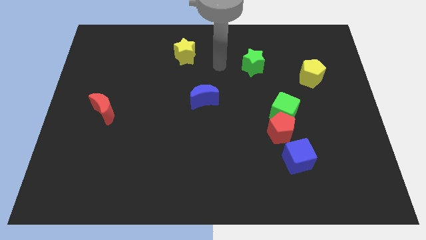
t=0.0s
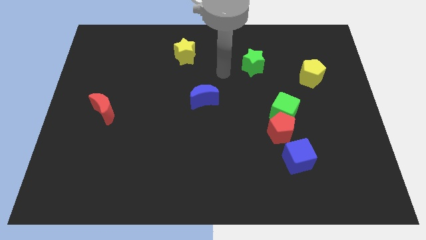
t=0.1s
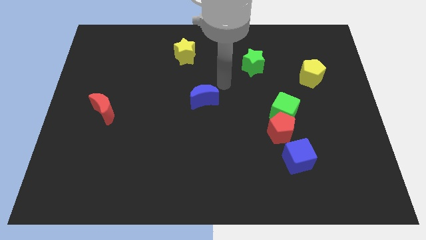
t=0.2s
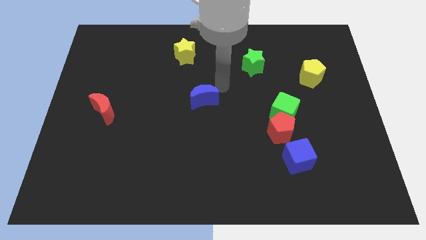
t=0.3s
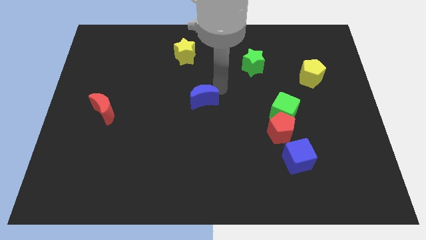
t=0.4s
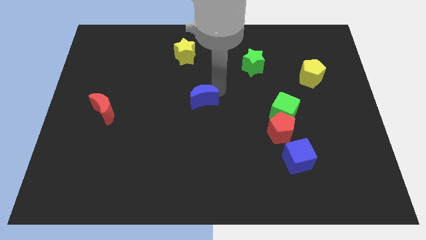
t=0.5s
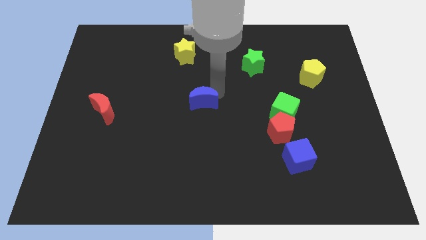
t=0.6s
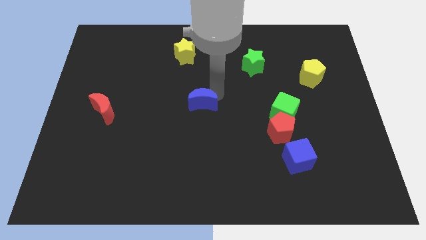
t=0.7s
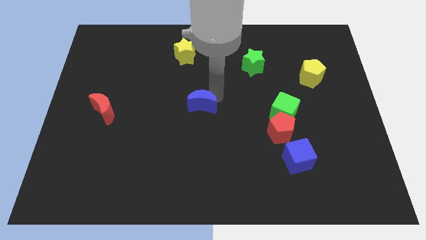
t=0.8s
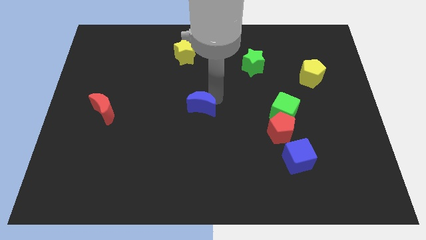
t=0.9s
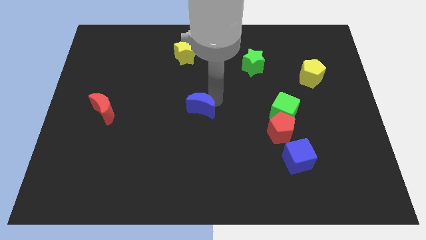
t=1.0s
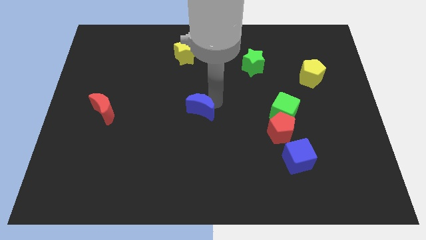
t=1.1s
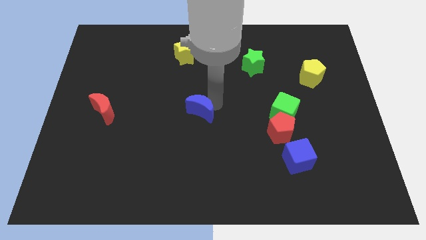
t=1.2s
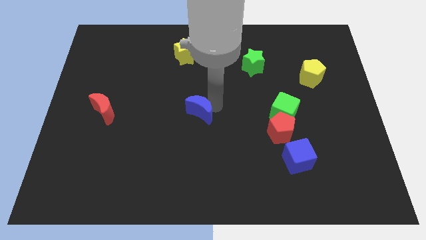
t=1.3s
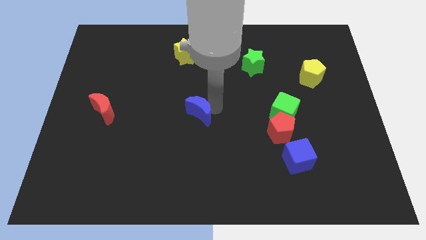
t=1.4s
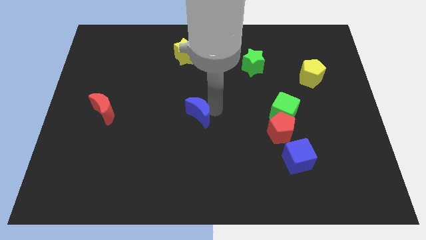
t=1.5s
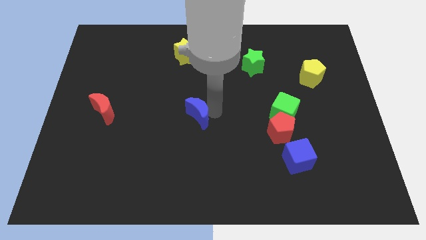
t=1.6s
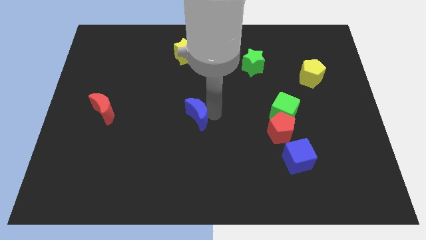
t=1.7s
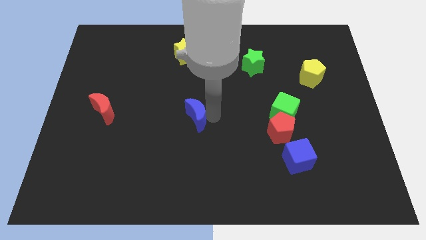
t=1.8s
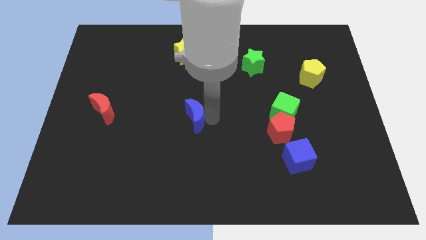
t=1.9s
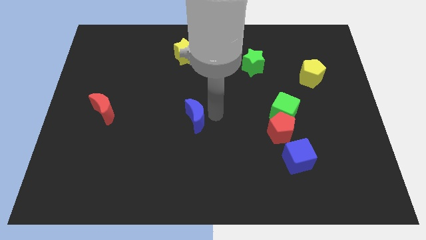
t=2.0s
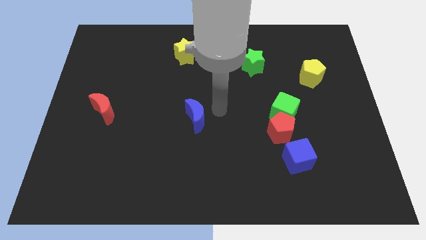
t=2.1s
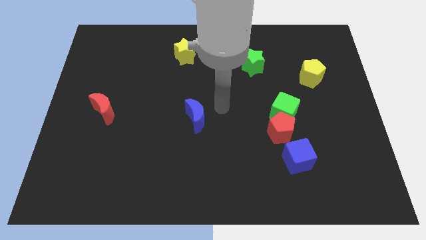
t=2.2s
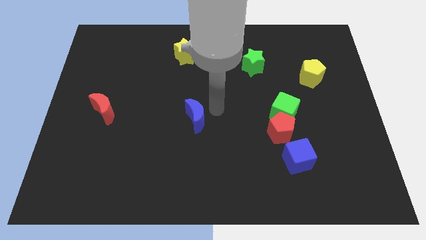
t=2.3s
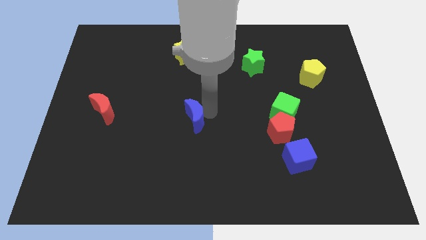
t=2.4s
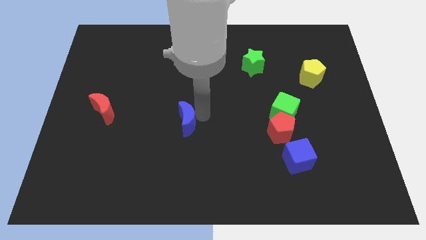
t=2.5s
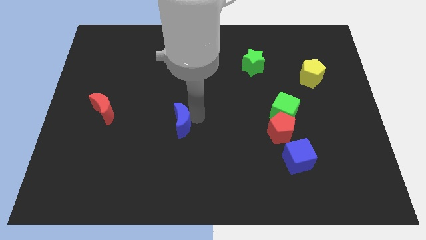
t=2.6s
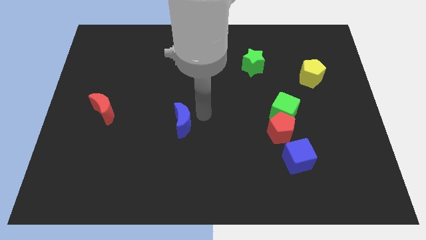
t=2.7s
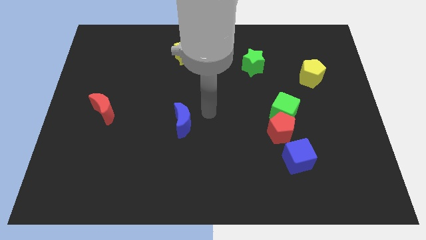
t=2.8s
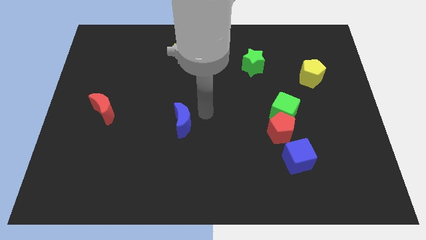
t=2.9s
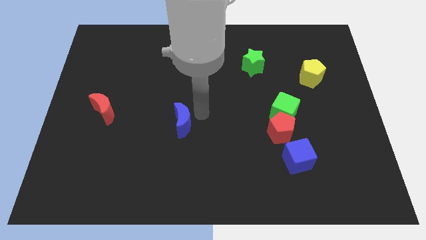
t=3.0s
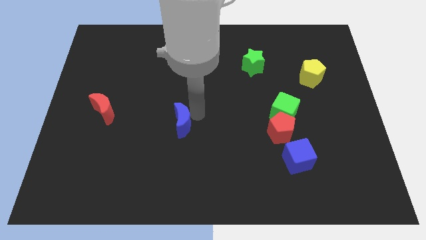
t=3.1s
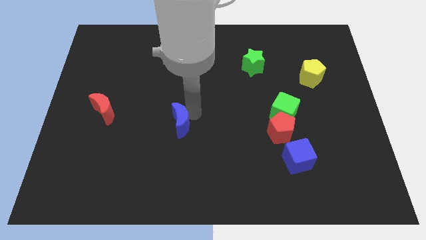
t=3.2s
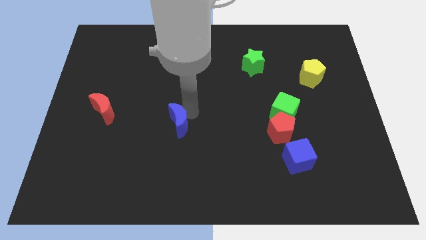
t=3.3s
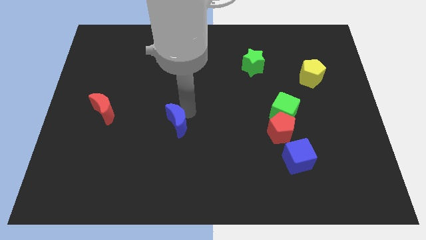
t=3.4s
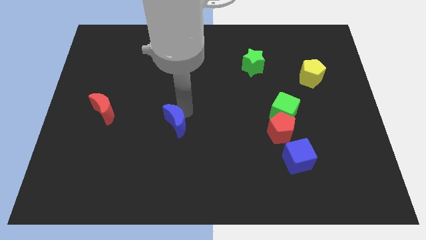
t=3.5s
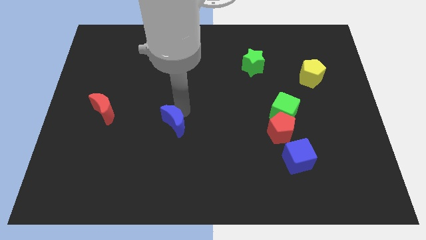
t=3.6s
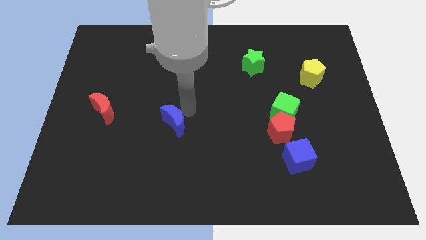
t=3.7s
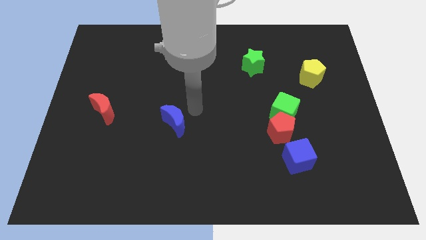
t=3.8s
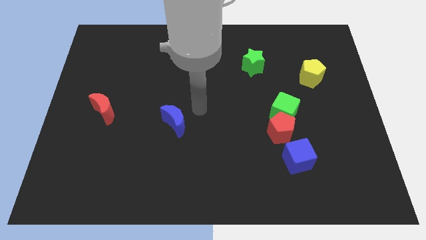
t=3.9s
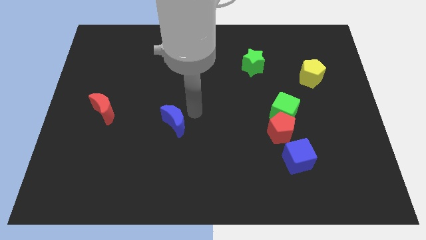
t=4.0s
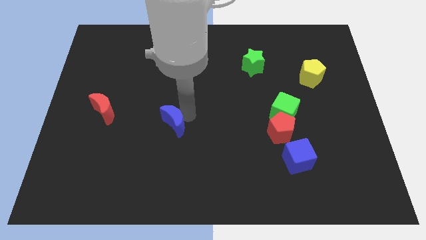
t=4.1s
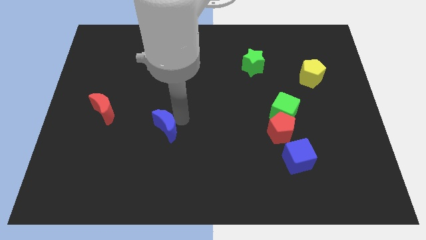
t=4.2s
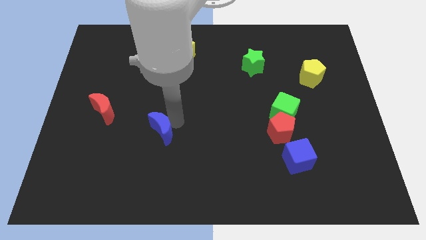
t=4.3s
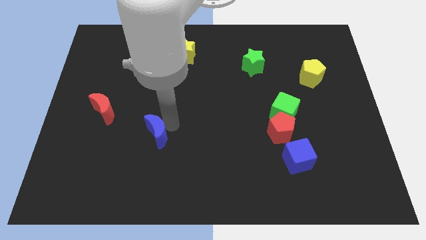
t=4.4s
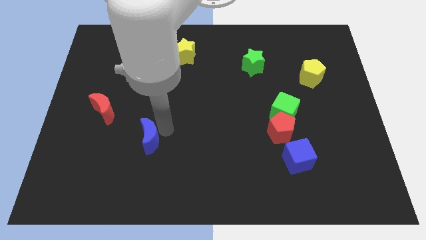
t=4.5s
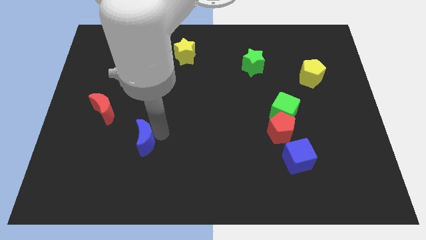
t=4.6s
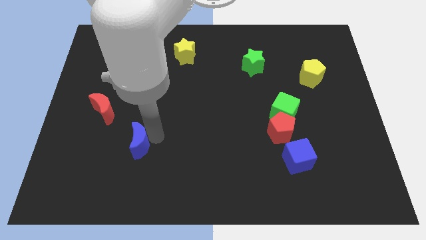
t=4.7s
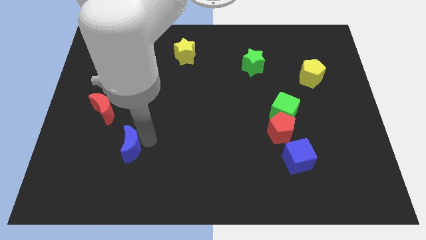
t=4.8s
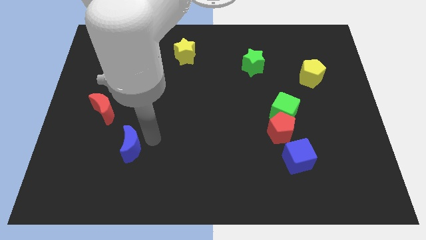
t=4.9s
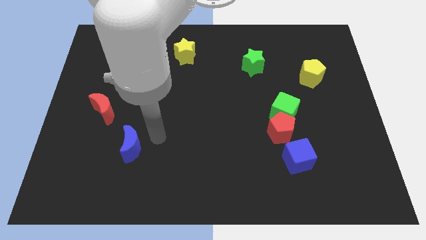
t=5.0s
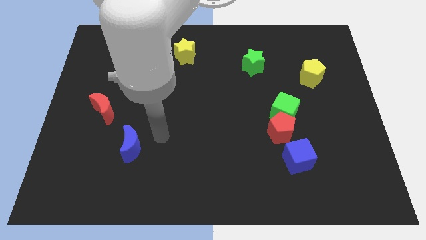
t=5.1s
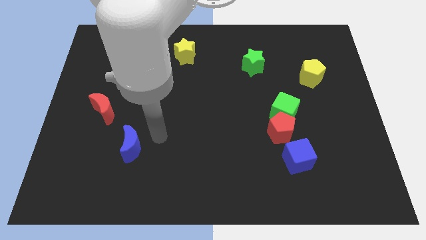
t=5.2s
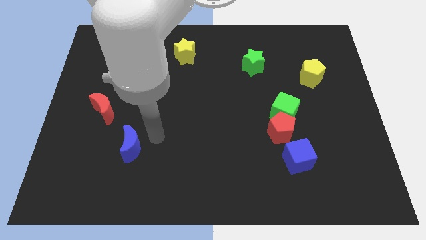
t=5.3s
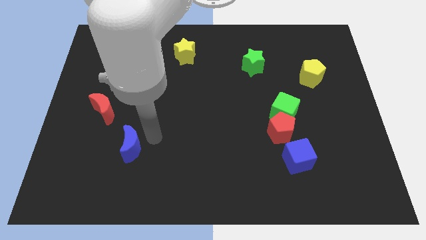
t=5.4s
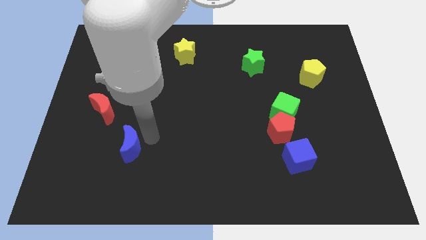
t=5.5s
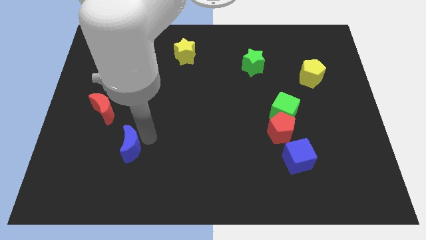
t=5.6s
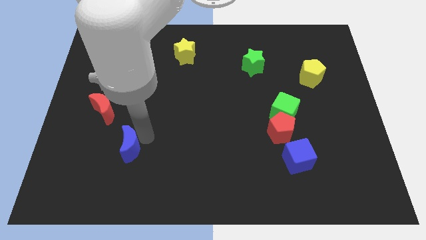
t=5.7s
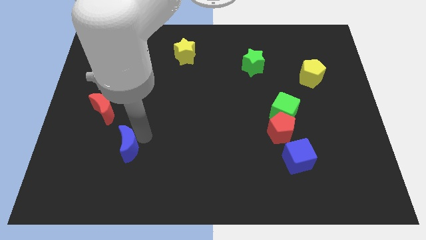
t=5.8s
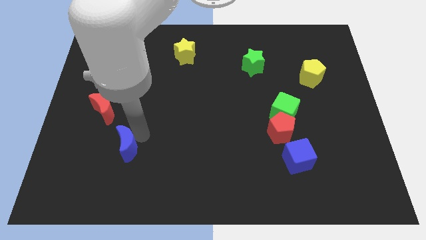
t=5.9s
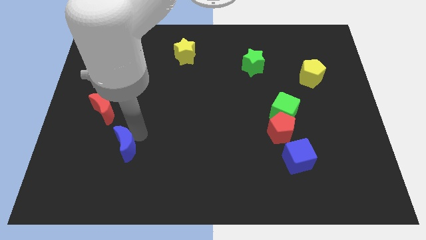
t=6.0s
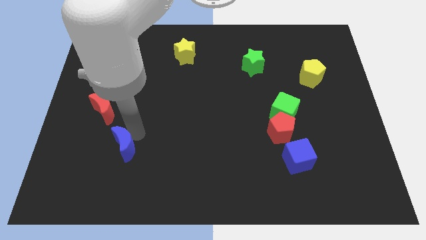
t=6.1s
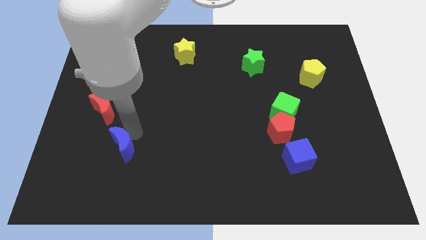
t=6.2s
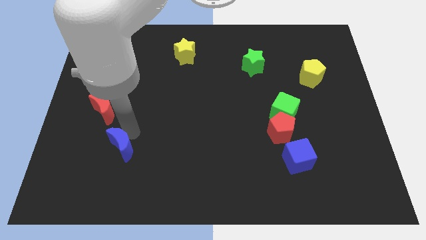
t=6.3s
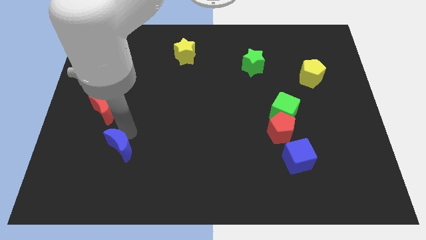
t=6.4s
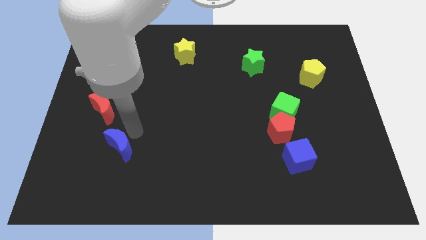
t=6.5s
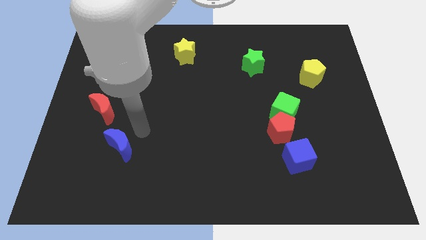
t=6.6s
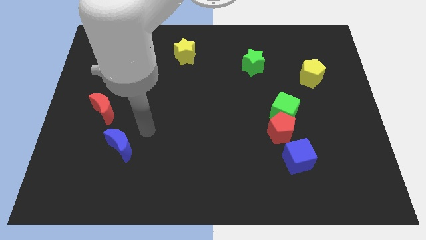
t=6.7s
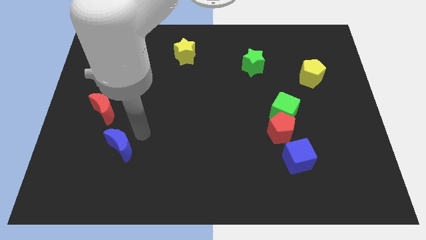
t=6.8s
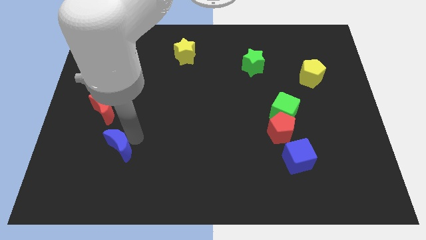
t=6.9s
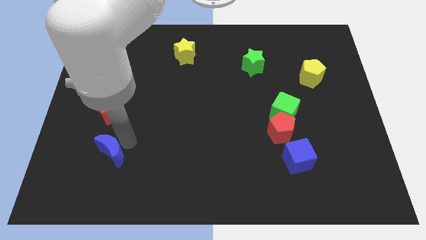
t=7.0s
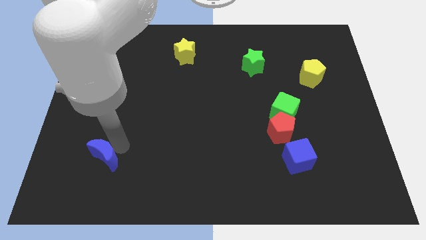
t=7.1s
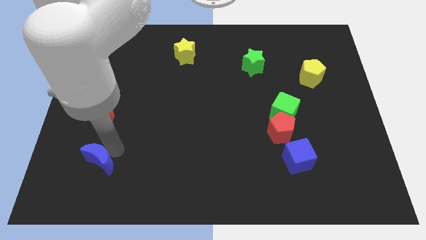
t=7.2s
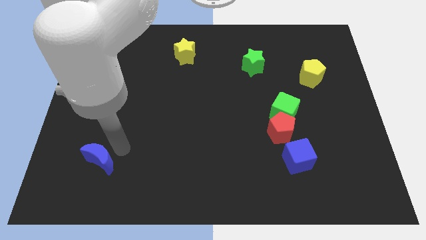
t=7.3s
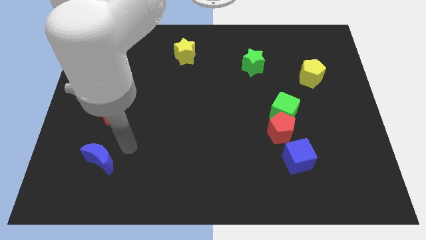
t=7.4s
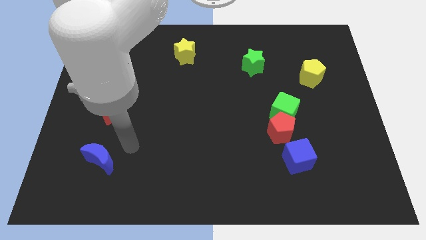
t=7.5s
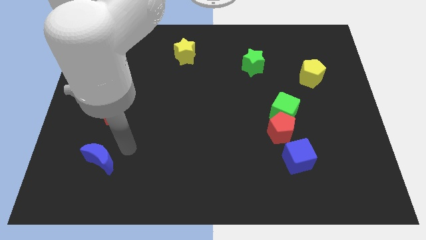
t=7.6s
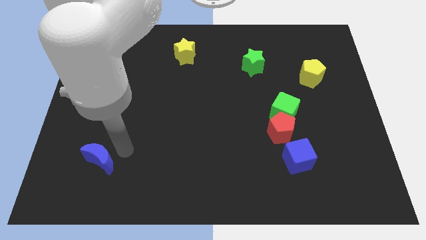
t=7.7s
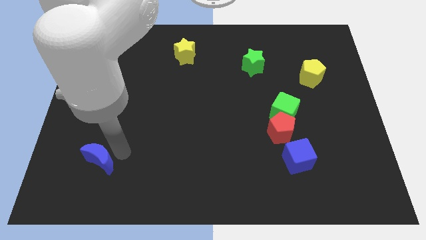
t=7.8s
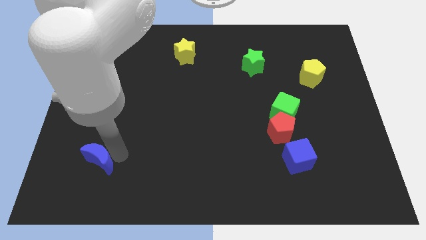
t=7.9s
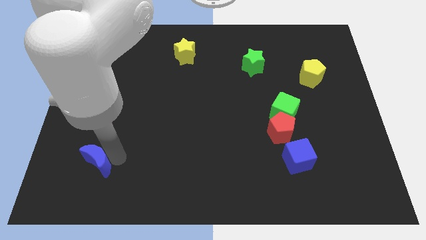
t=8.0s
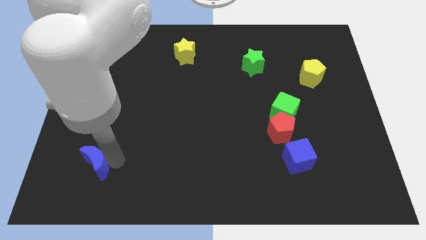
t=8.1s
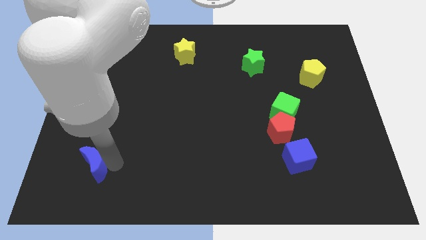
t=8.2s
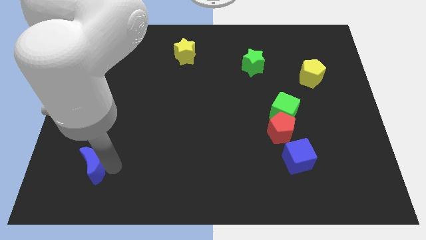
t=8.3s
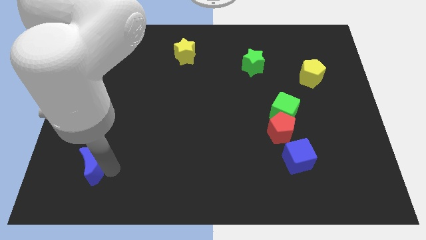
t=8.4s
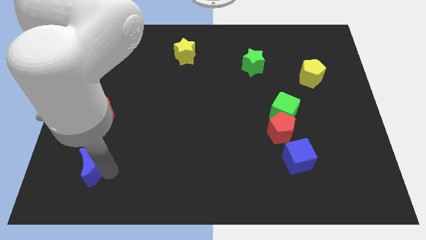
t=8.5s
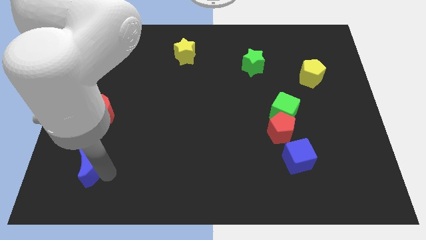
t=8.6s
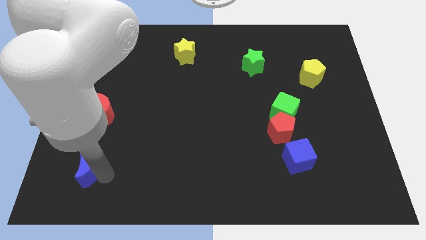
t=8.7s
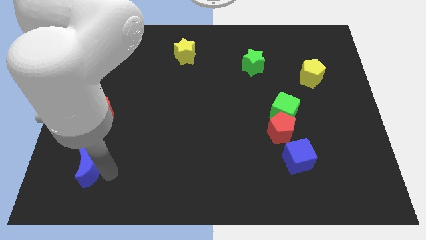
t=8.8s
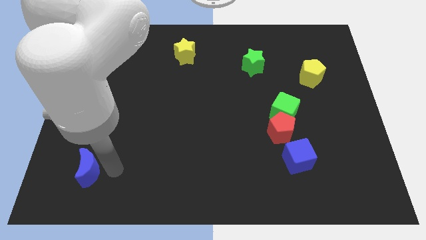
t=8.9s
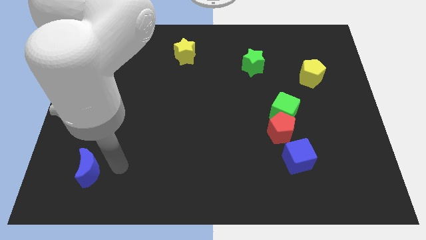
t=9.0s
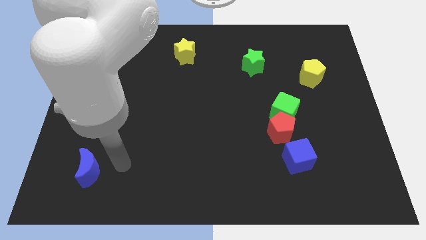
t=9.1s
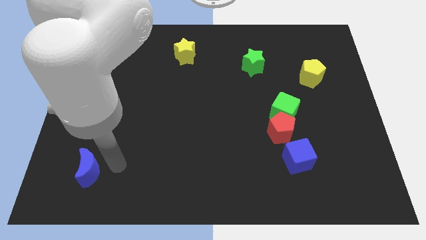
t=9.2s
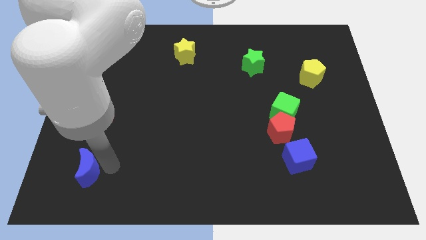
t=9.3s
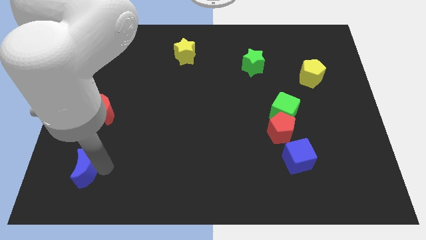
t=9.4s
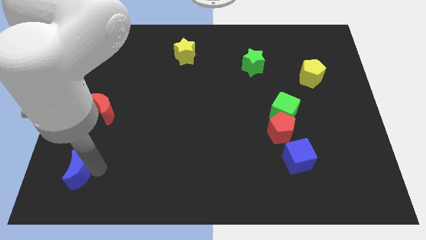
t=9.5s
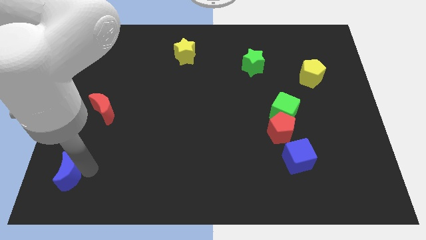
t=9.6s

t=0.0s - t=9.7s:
move the blue moon to the bottom left corner
